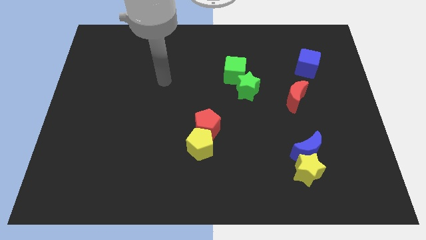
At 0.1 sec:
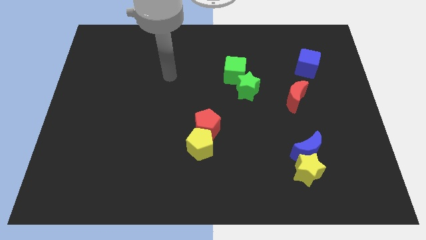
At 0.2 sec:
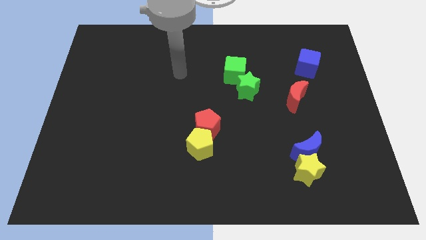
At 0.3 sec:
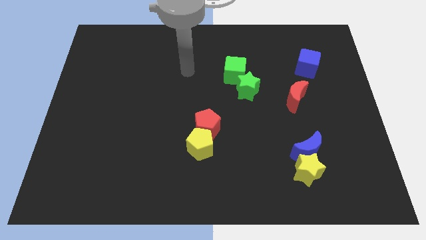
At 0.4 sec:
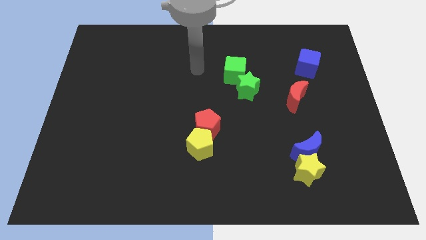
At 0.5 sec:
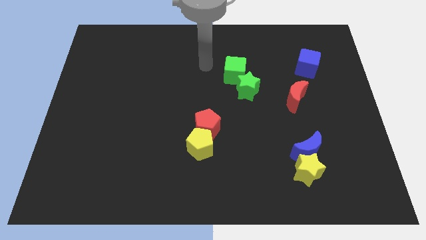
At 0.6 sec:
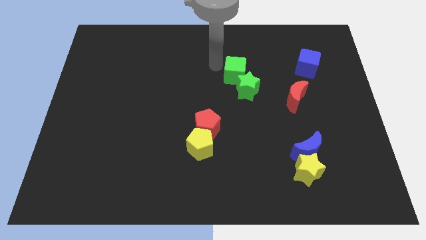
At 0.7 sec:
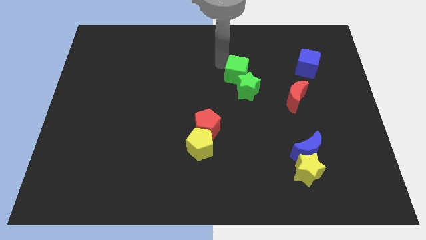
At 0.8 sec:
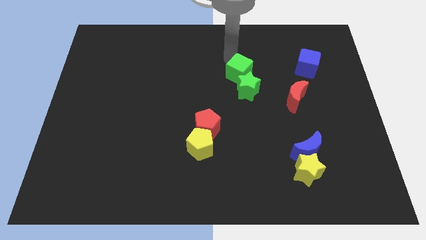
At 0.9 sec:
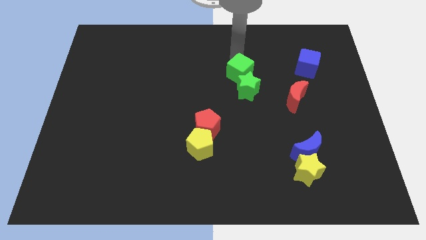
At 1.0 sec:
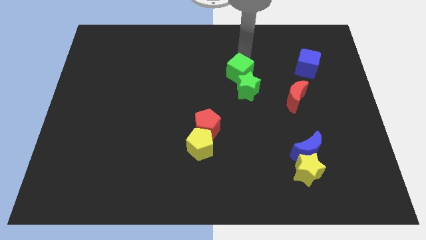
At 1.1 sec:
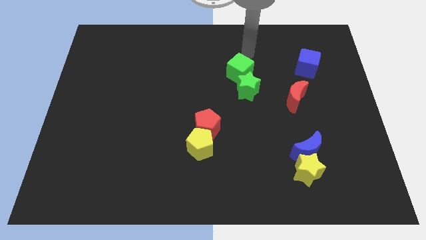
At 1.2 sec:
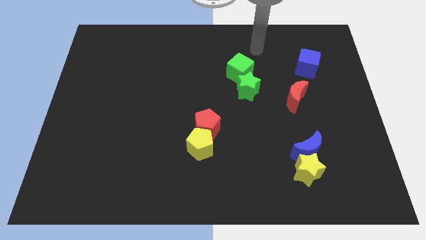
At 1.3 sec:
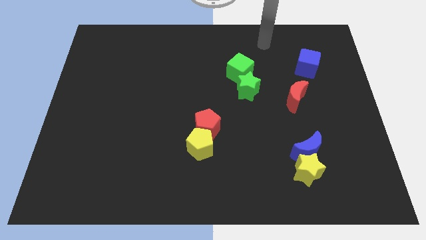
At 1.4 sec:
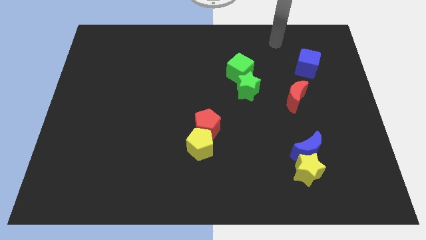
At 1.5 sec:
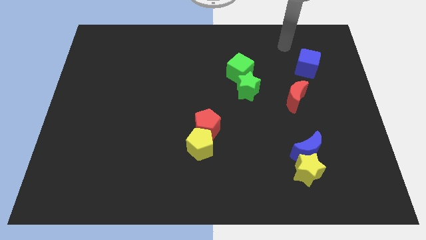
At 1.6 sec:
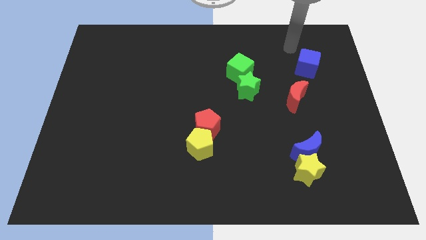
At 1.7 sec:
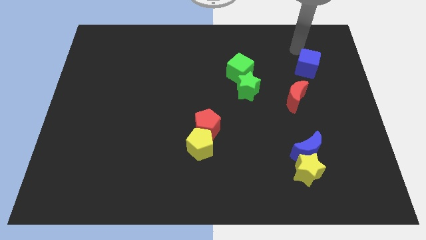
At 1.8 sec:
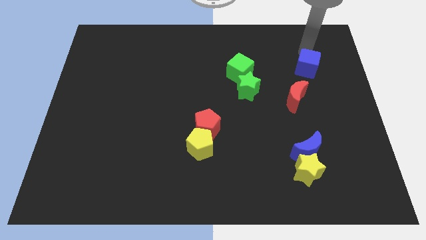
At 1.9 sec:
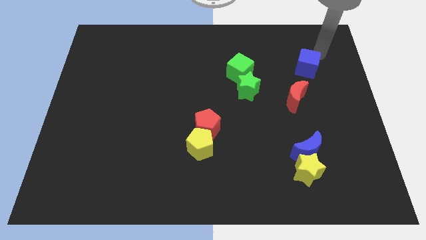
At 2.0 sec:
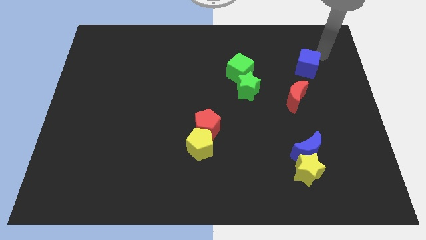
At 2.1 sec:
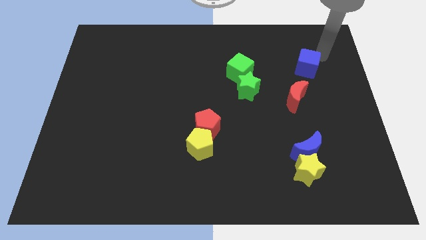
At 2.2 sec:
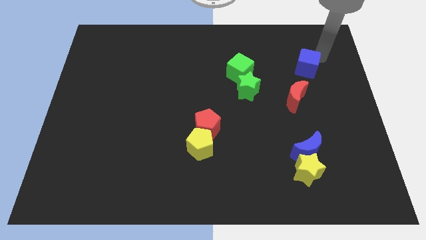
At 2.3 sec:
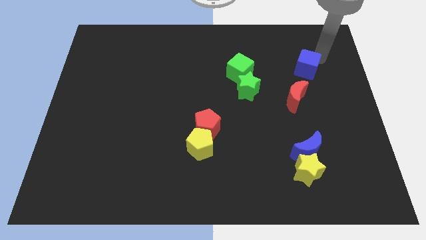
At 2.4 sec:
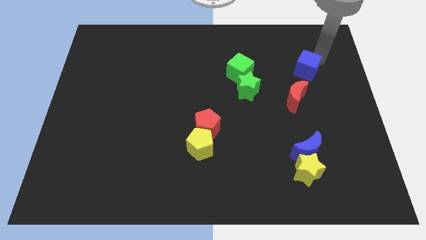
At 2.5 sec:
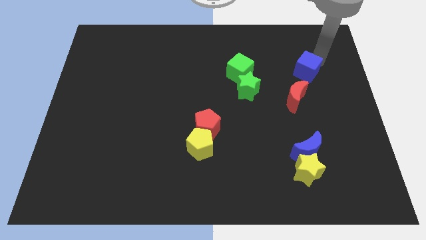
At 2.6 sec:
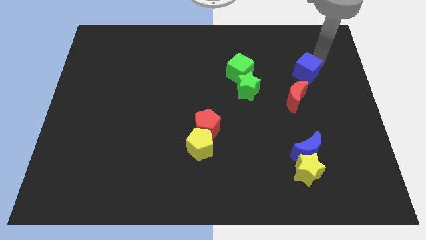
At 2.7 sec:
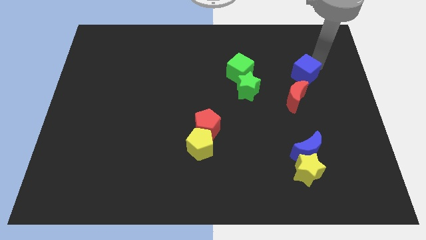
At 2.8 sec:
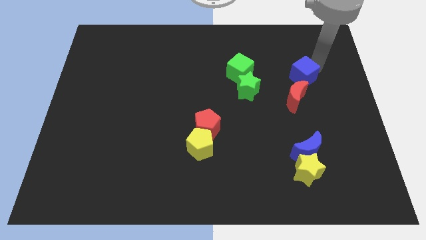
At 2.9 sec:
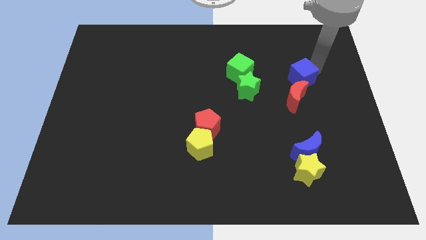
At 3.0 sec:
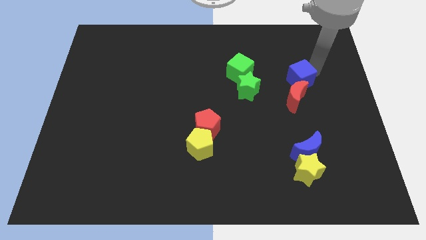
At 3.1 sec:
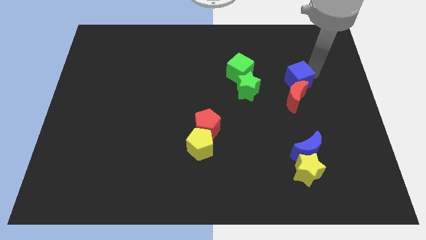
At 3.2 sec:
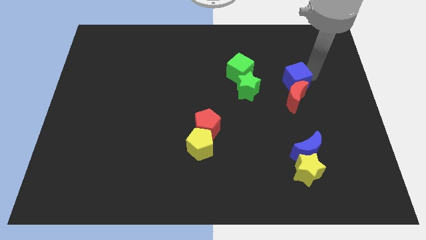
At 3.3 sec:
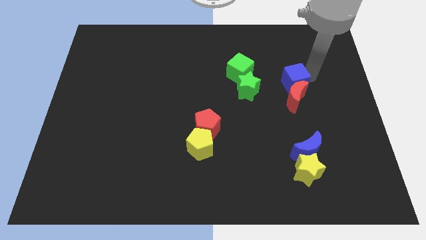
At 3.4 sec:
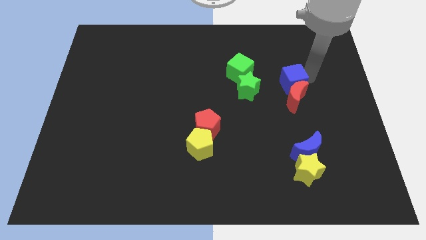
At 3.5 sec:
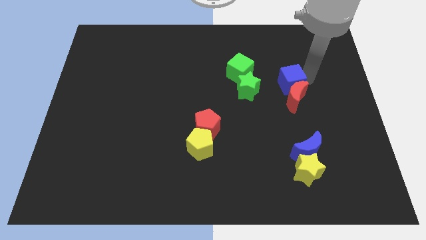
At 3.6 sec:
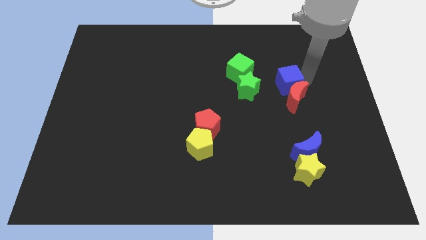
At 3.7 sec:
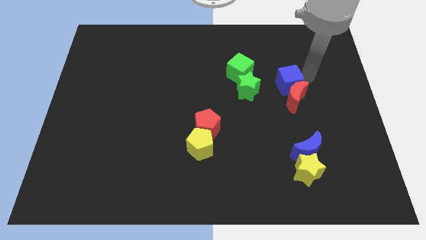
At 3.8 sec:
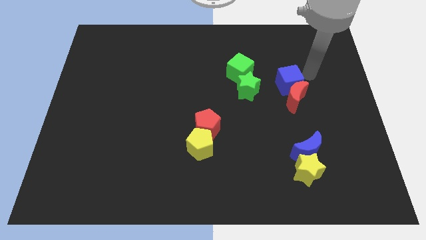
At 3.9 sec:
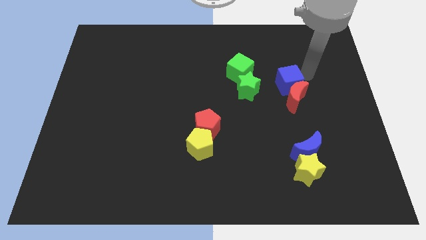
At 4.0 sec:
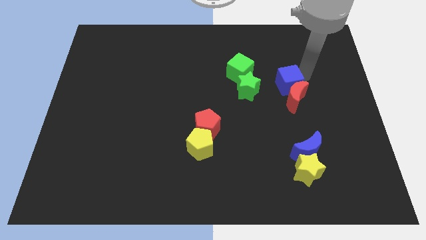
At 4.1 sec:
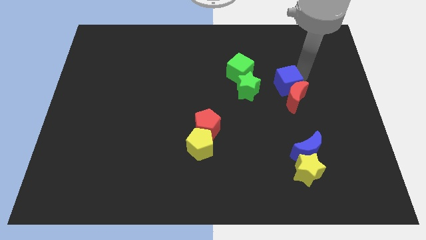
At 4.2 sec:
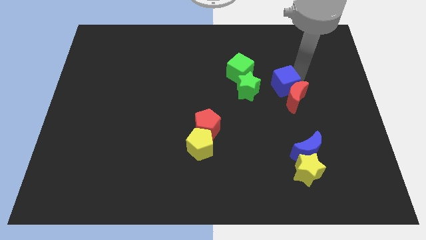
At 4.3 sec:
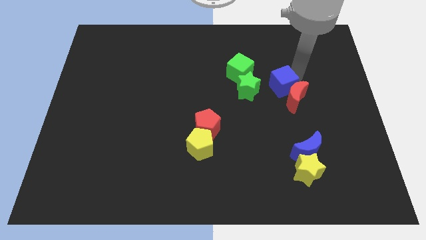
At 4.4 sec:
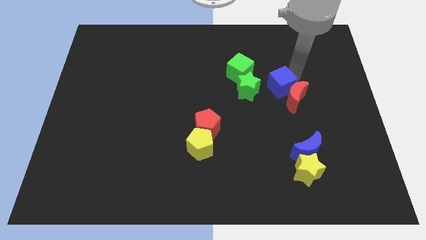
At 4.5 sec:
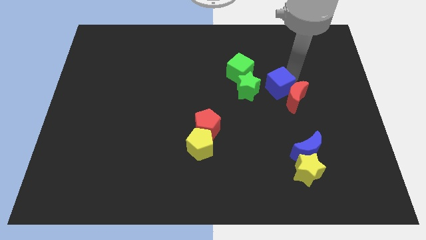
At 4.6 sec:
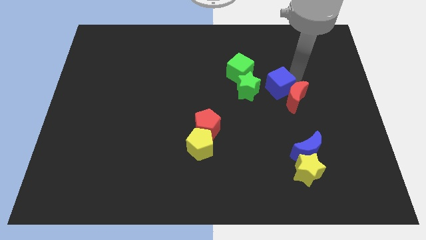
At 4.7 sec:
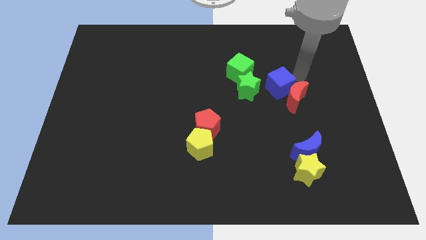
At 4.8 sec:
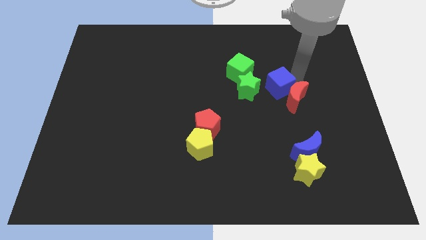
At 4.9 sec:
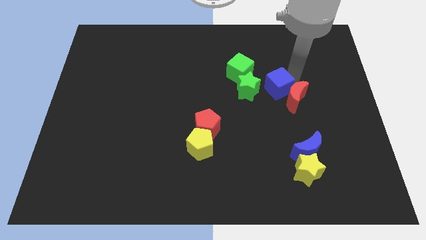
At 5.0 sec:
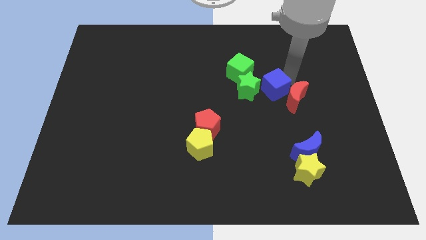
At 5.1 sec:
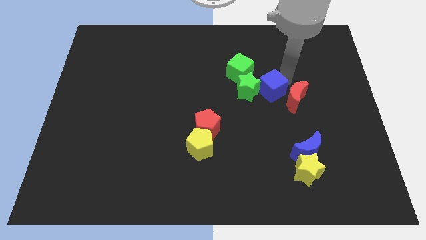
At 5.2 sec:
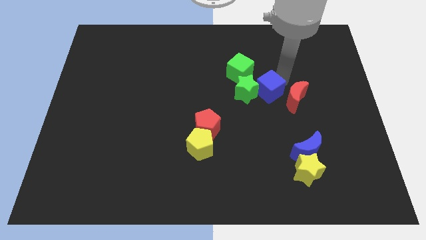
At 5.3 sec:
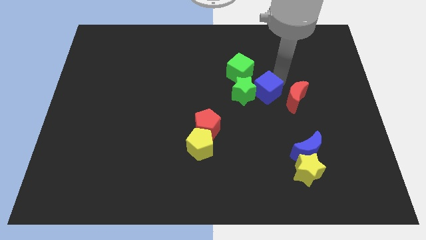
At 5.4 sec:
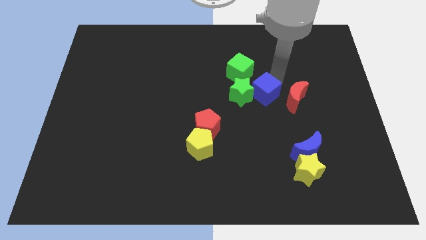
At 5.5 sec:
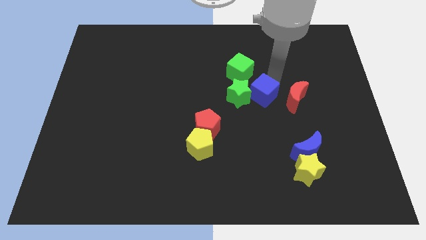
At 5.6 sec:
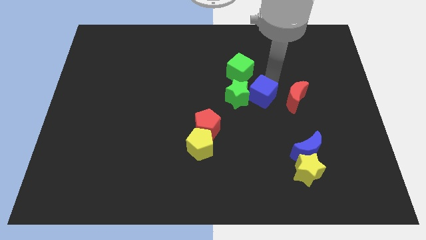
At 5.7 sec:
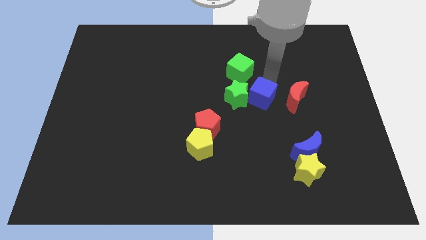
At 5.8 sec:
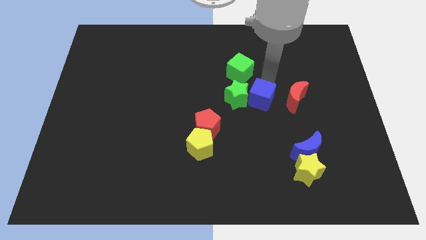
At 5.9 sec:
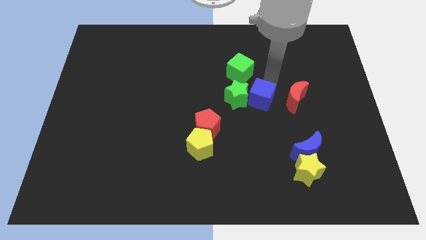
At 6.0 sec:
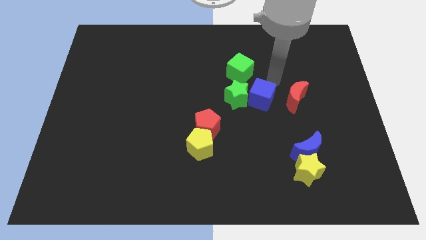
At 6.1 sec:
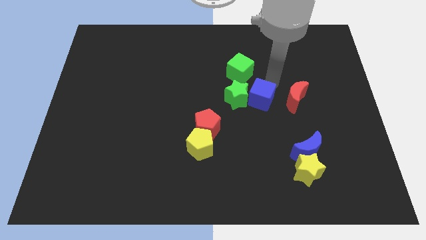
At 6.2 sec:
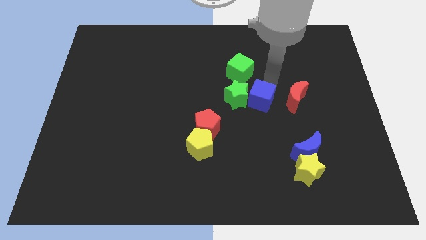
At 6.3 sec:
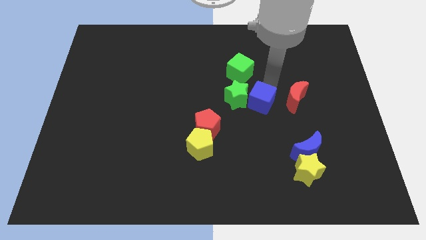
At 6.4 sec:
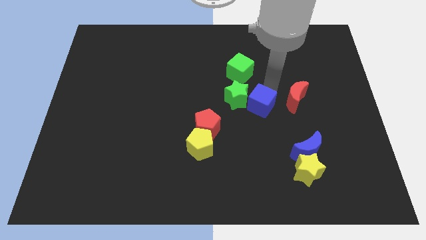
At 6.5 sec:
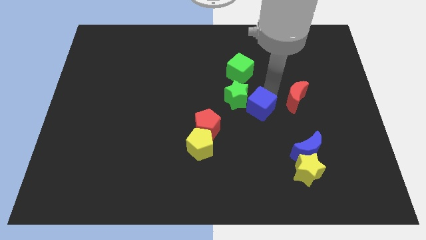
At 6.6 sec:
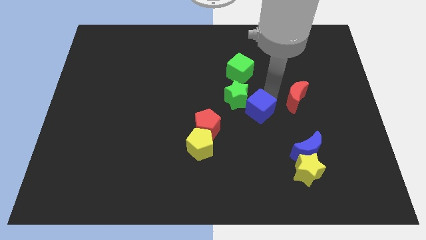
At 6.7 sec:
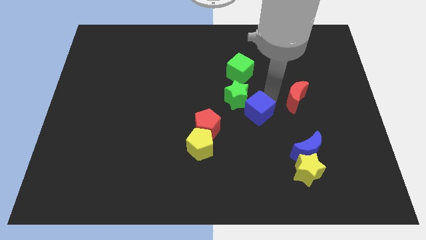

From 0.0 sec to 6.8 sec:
slide the blue cube downwards and left diagonally

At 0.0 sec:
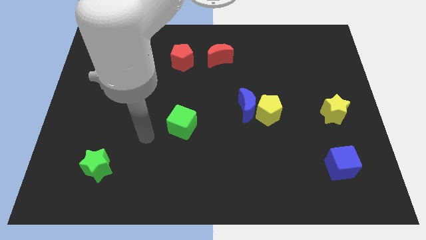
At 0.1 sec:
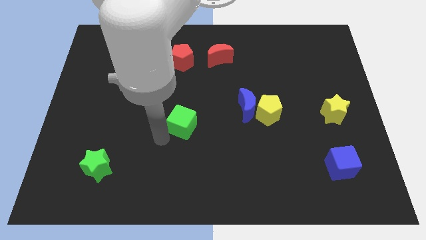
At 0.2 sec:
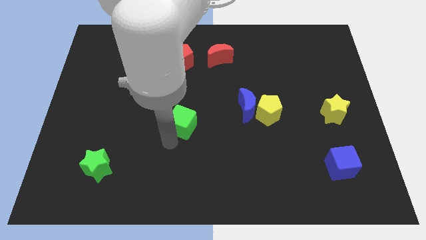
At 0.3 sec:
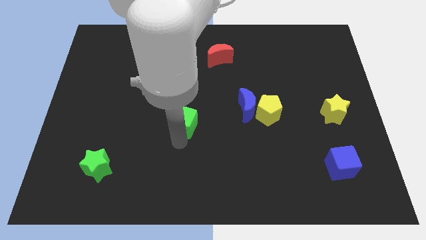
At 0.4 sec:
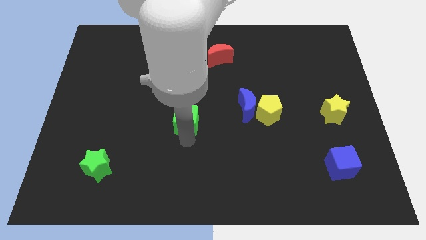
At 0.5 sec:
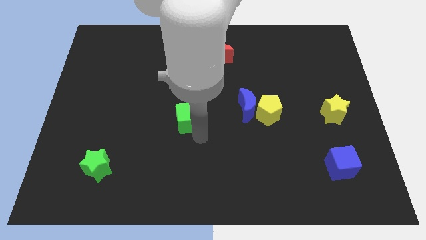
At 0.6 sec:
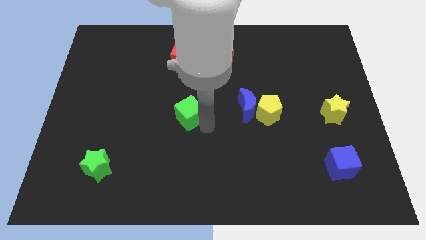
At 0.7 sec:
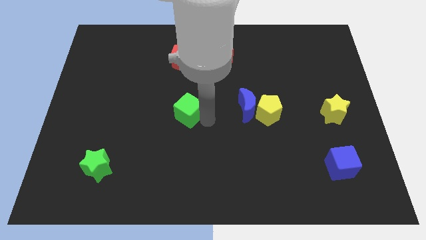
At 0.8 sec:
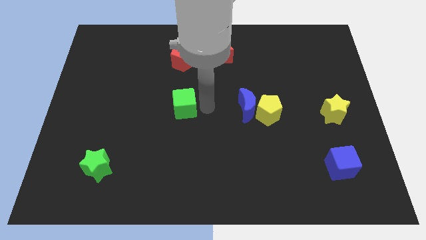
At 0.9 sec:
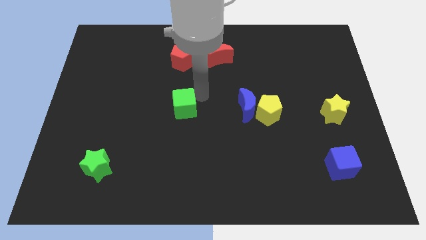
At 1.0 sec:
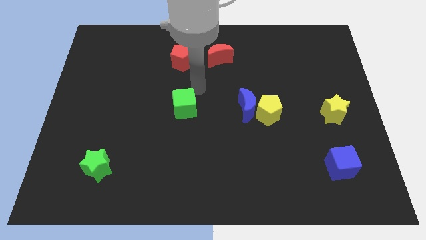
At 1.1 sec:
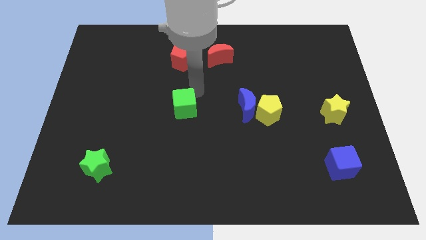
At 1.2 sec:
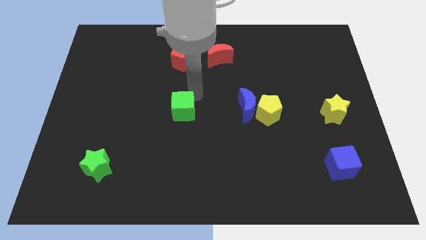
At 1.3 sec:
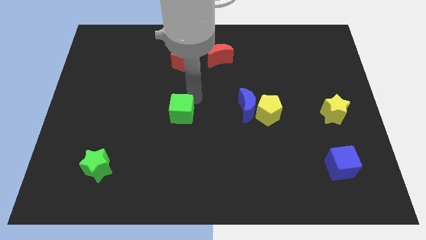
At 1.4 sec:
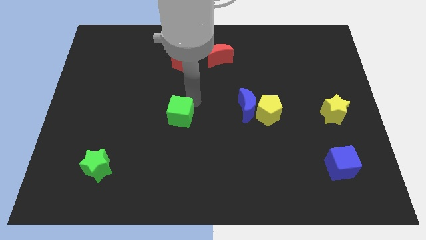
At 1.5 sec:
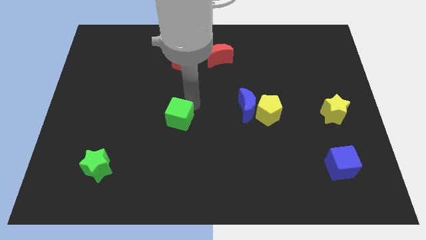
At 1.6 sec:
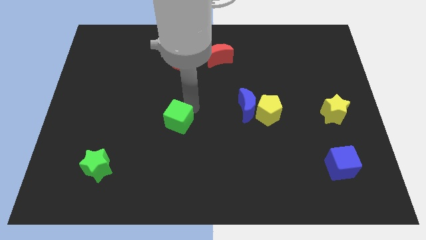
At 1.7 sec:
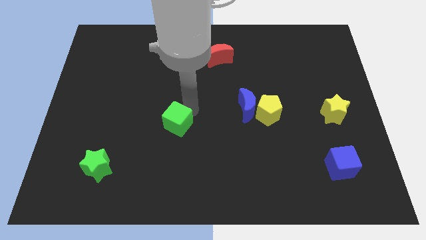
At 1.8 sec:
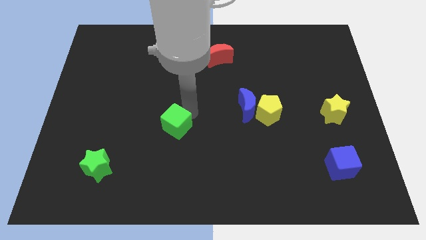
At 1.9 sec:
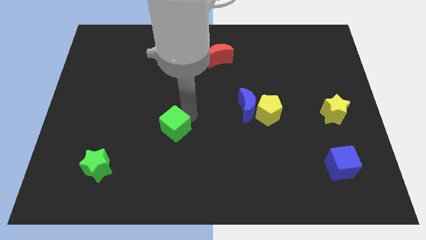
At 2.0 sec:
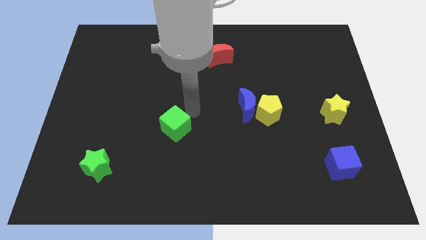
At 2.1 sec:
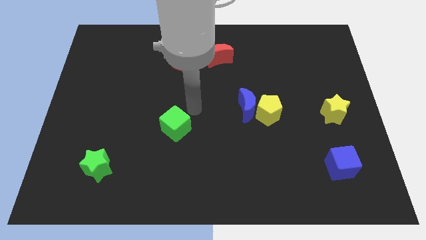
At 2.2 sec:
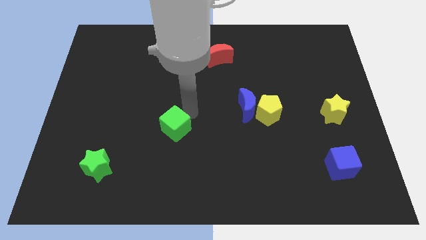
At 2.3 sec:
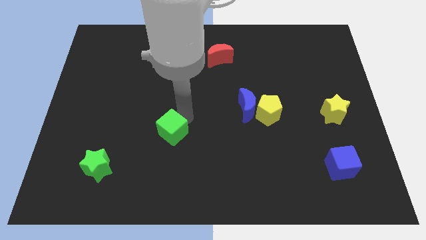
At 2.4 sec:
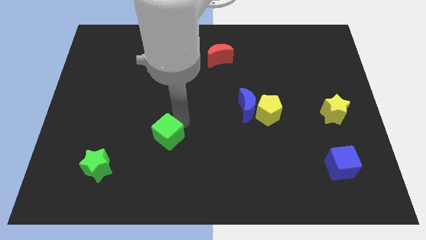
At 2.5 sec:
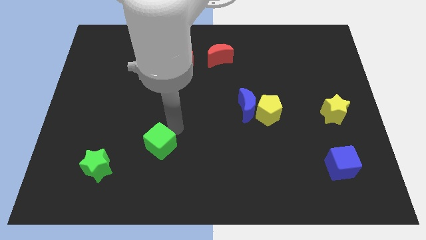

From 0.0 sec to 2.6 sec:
slightly slide the green cube downwards and to the left
